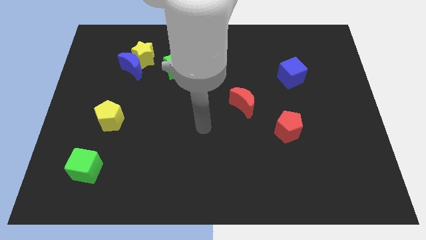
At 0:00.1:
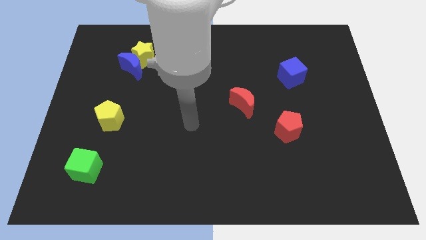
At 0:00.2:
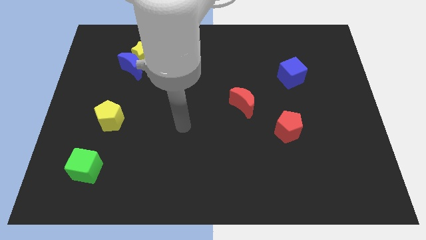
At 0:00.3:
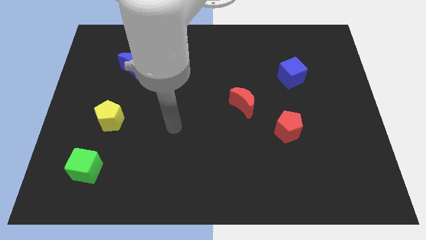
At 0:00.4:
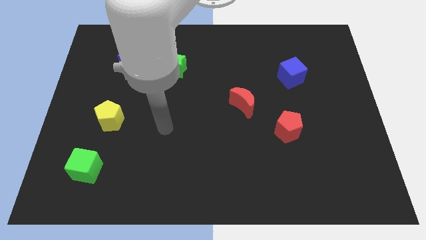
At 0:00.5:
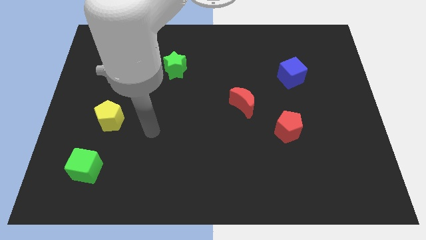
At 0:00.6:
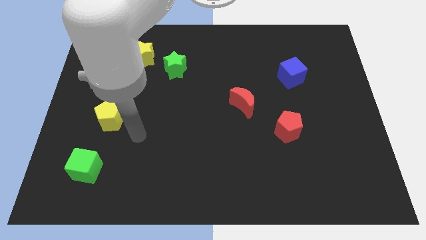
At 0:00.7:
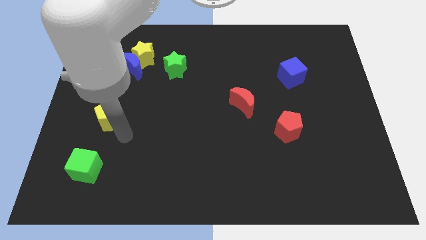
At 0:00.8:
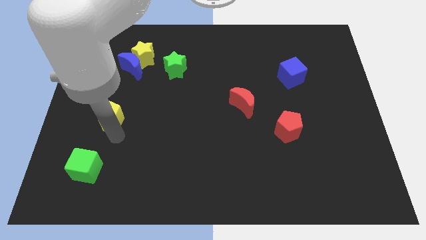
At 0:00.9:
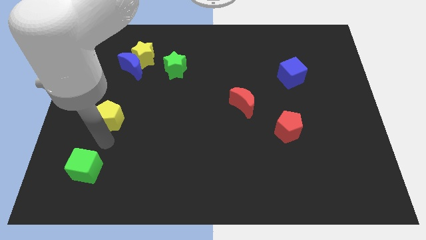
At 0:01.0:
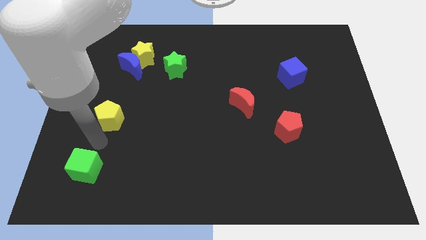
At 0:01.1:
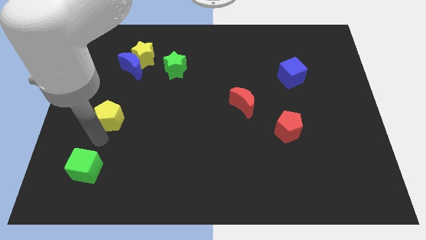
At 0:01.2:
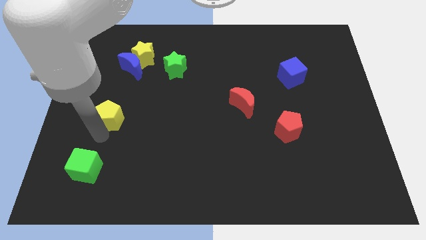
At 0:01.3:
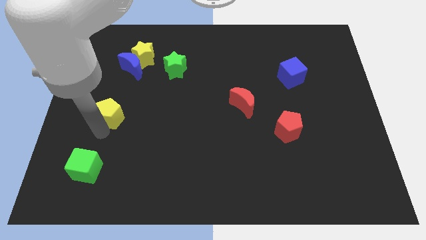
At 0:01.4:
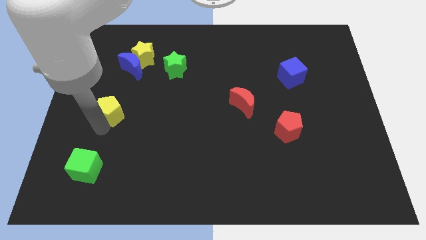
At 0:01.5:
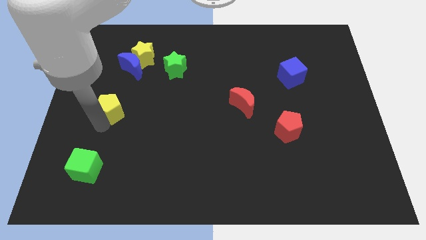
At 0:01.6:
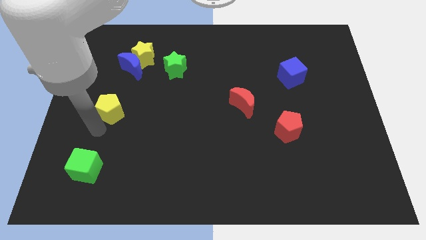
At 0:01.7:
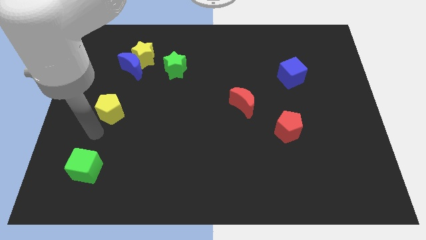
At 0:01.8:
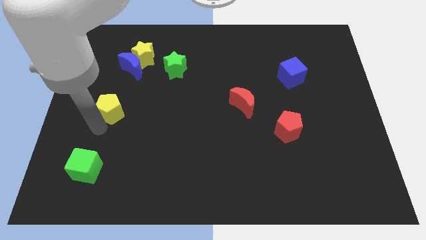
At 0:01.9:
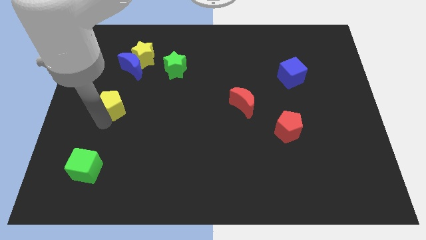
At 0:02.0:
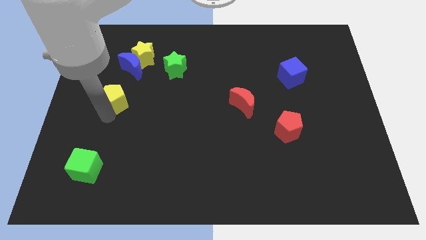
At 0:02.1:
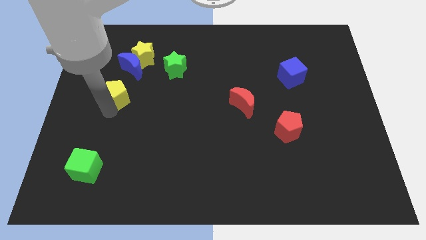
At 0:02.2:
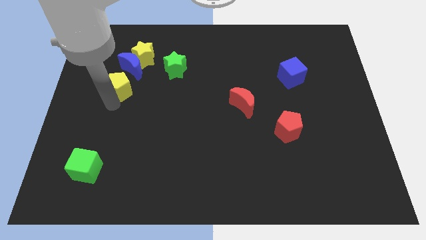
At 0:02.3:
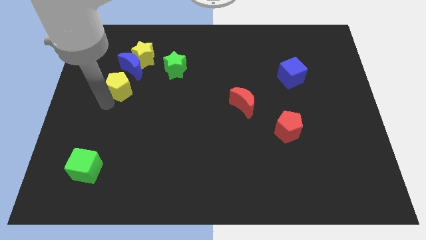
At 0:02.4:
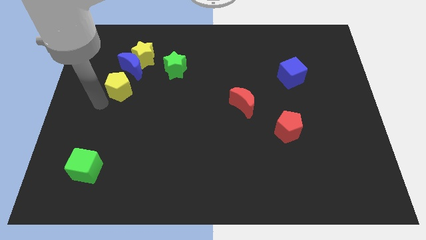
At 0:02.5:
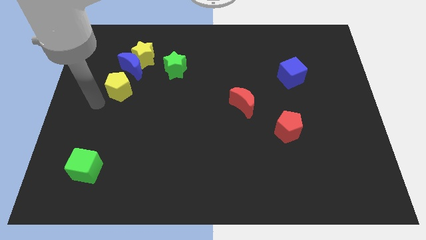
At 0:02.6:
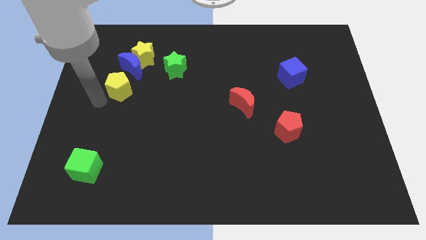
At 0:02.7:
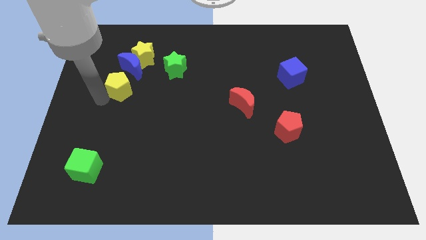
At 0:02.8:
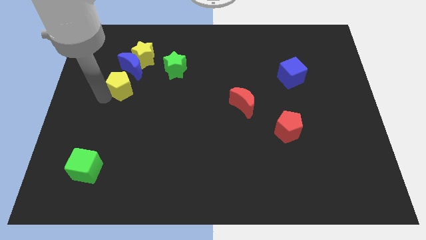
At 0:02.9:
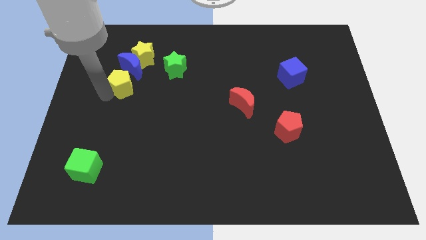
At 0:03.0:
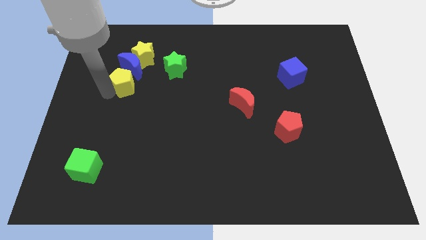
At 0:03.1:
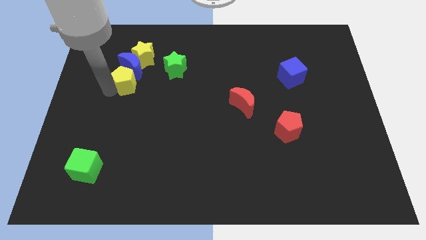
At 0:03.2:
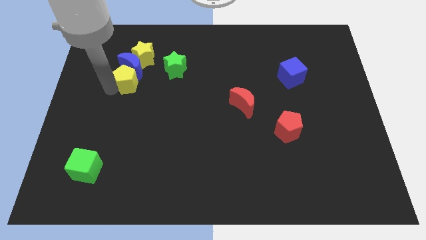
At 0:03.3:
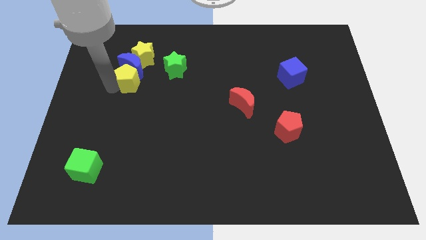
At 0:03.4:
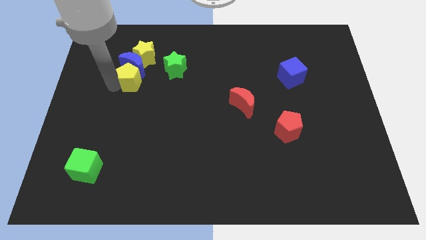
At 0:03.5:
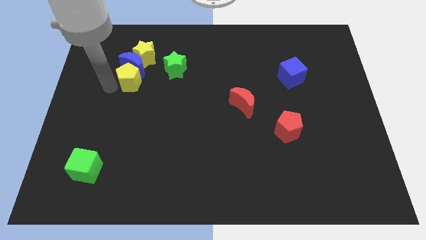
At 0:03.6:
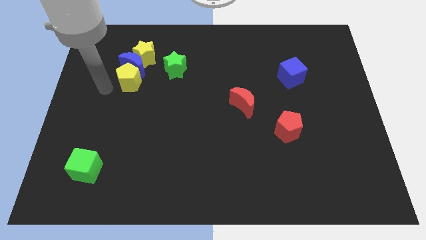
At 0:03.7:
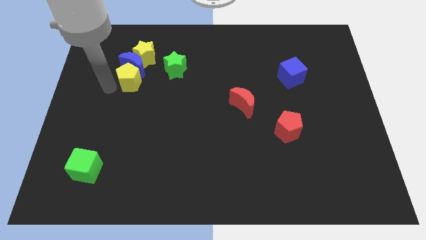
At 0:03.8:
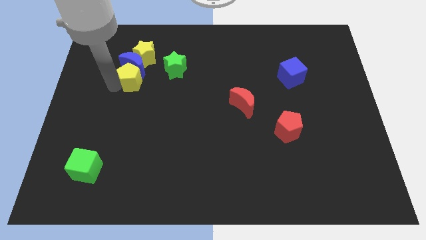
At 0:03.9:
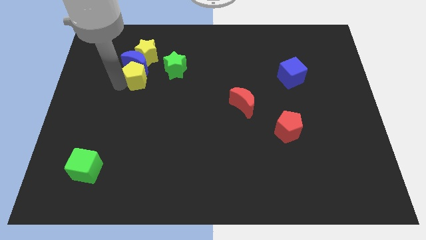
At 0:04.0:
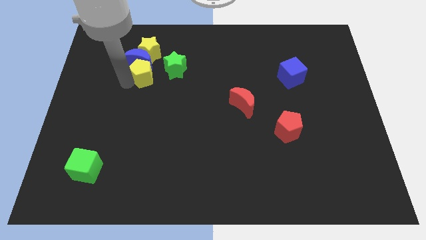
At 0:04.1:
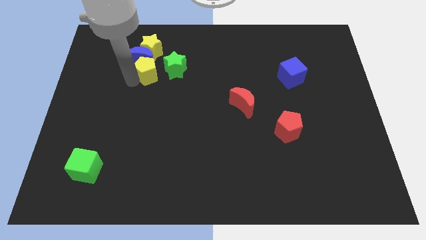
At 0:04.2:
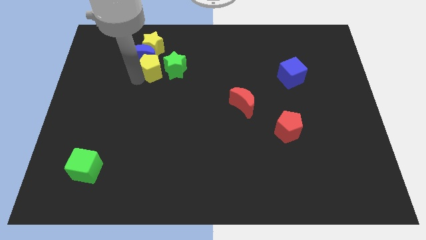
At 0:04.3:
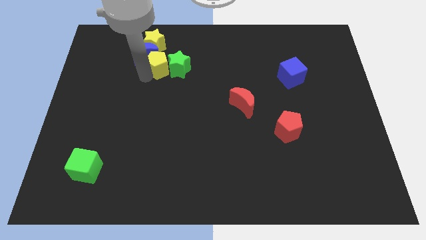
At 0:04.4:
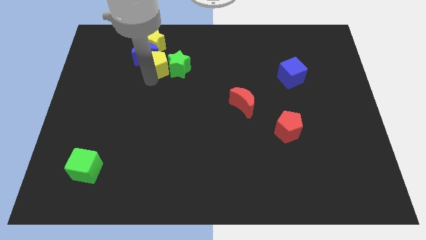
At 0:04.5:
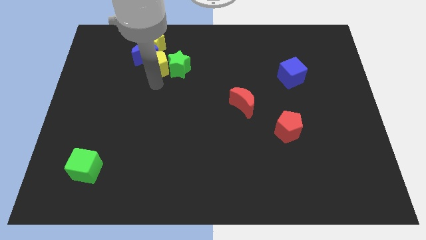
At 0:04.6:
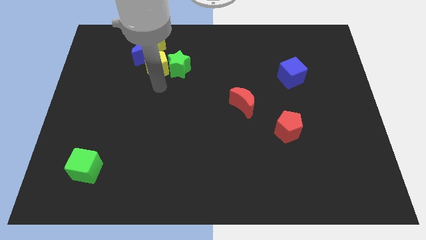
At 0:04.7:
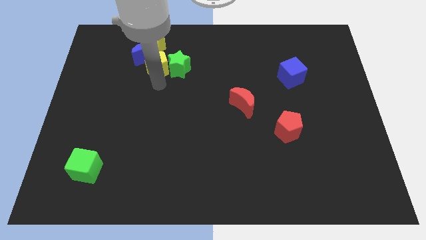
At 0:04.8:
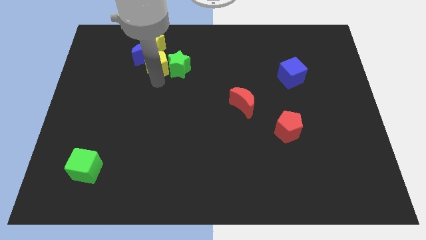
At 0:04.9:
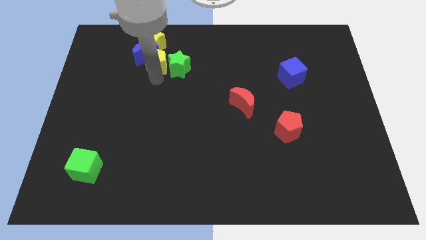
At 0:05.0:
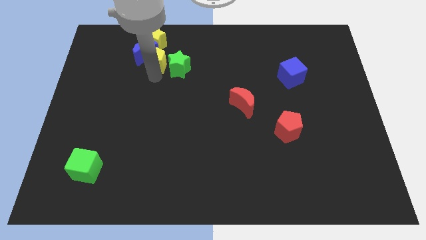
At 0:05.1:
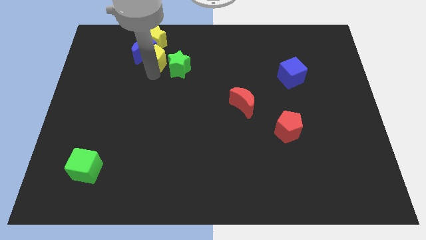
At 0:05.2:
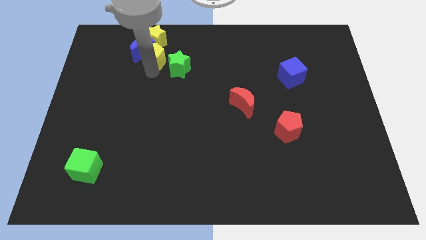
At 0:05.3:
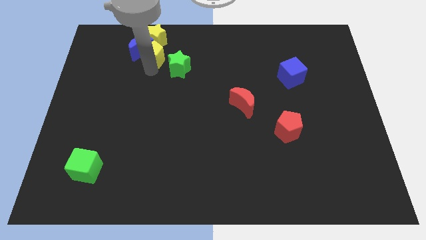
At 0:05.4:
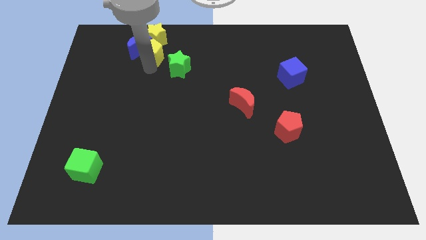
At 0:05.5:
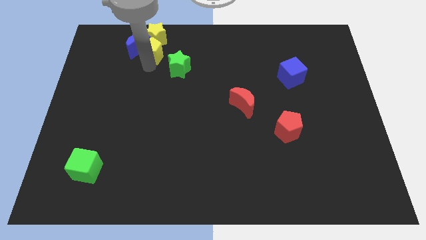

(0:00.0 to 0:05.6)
put the yellow pentagon close to the yellow star

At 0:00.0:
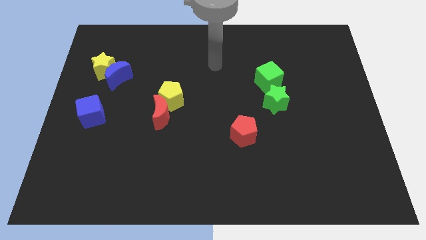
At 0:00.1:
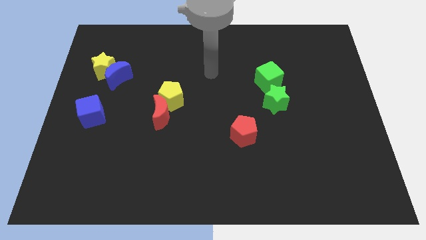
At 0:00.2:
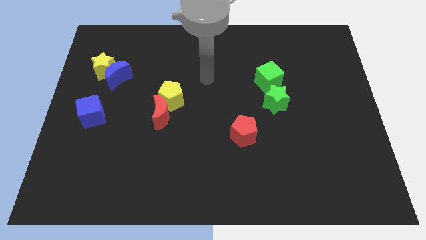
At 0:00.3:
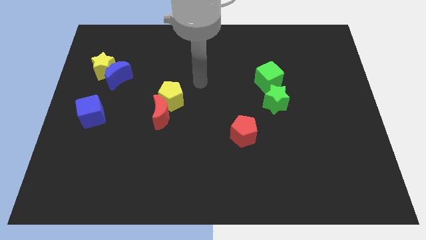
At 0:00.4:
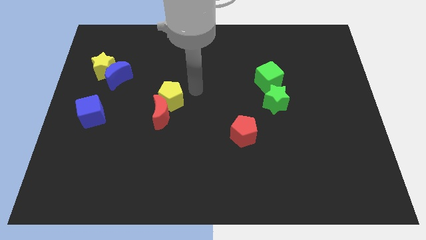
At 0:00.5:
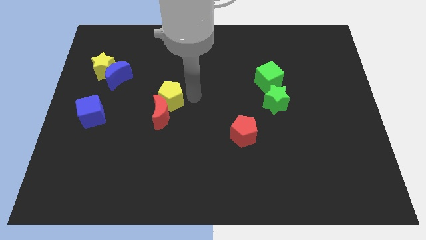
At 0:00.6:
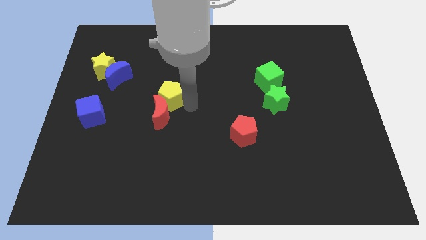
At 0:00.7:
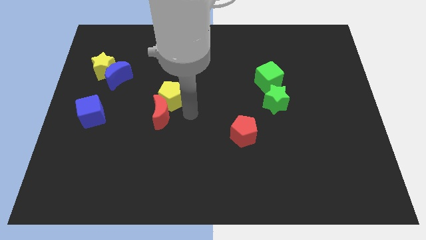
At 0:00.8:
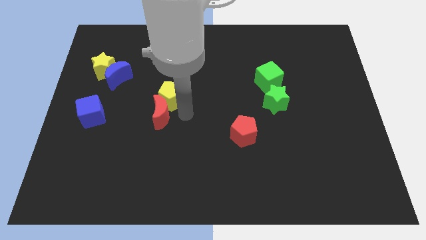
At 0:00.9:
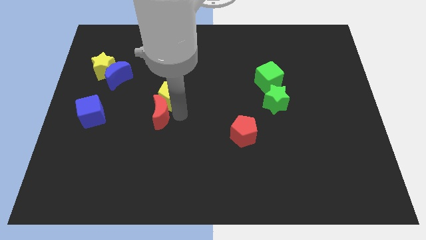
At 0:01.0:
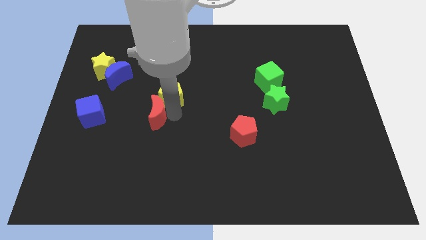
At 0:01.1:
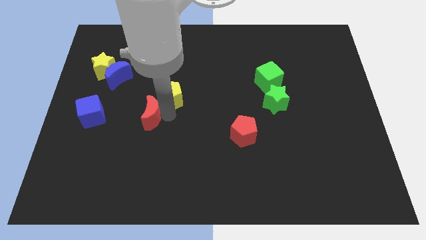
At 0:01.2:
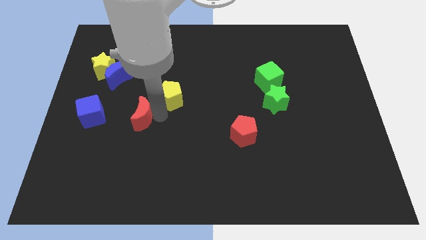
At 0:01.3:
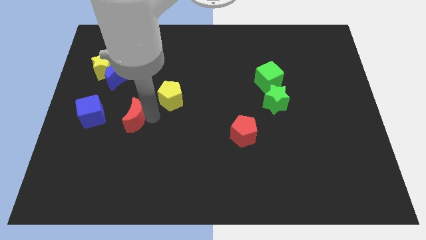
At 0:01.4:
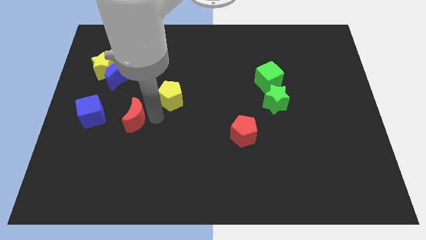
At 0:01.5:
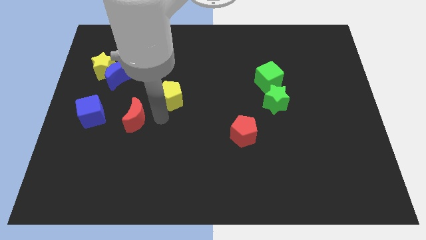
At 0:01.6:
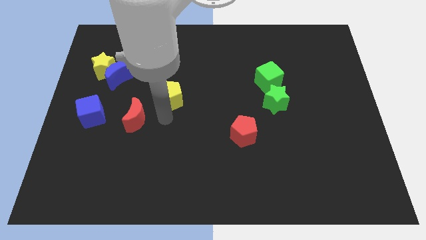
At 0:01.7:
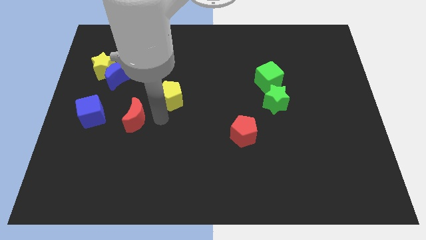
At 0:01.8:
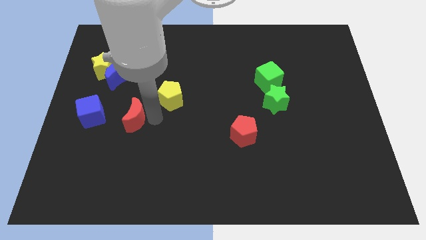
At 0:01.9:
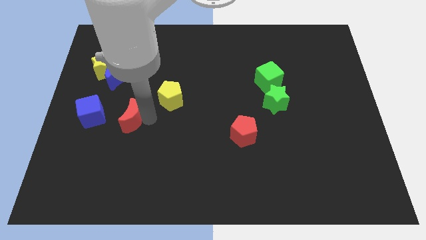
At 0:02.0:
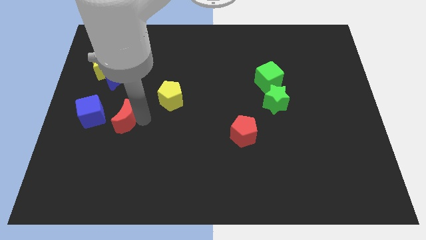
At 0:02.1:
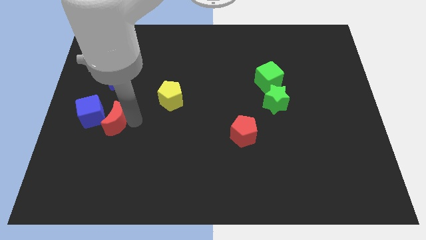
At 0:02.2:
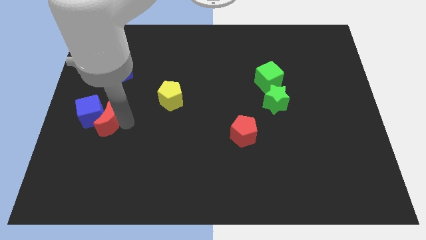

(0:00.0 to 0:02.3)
push the red moon to the blue cube

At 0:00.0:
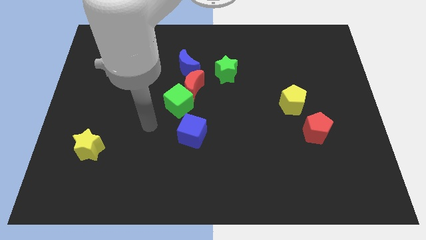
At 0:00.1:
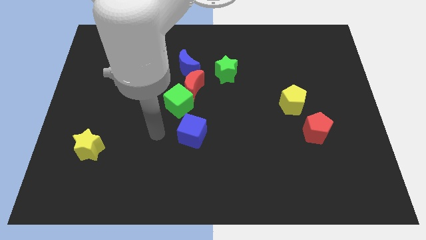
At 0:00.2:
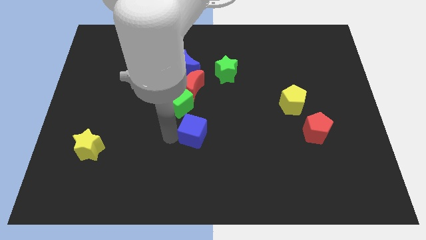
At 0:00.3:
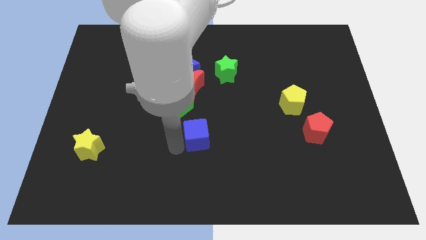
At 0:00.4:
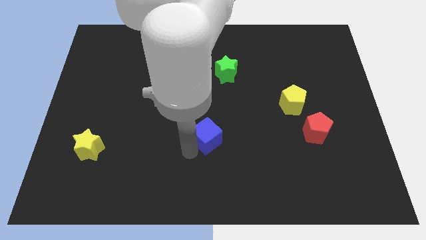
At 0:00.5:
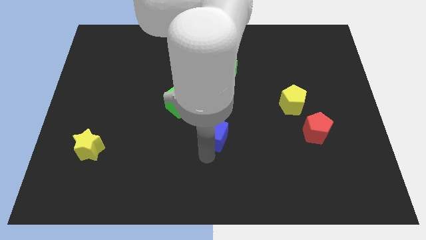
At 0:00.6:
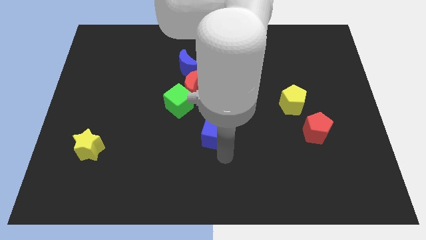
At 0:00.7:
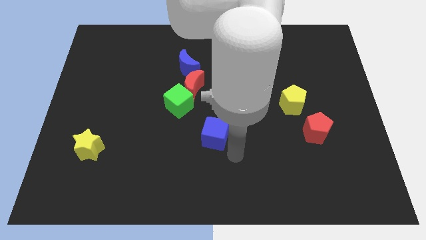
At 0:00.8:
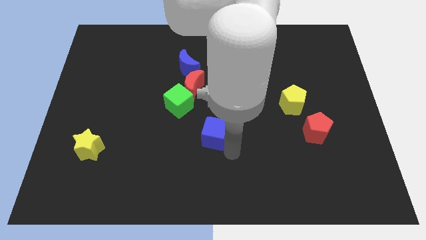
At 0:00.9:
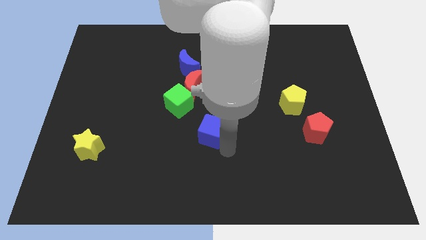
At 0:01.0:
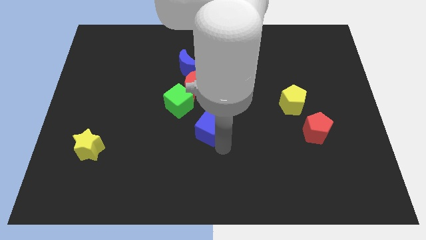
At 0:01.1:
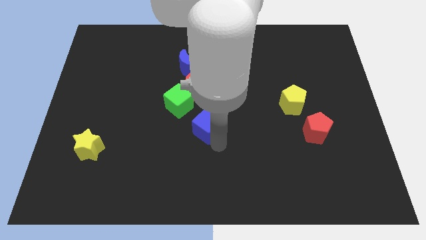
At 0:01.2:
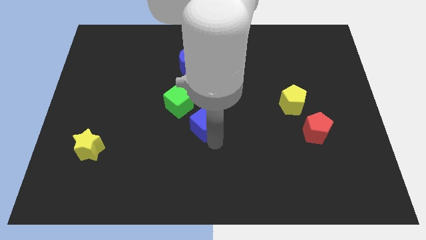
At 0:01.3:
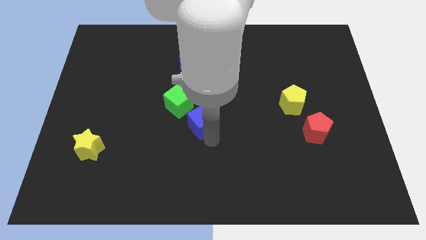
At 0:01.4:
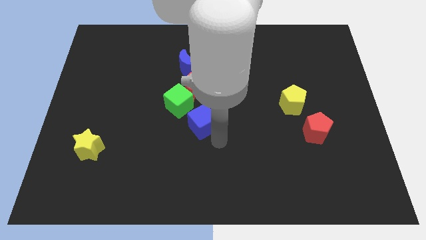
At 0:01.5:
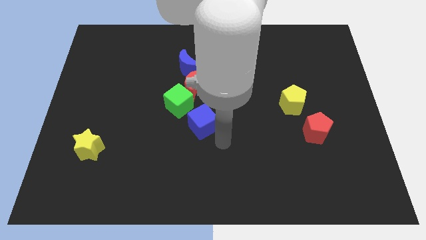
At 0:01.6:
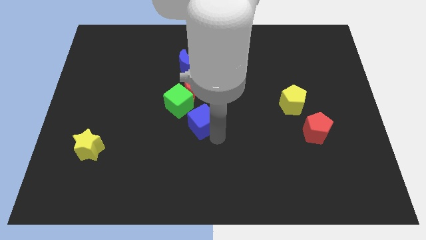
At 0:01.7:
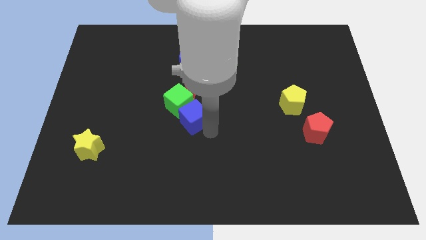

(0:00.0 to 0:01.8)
put the blue cube close to the green cube
